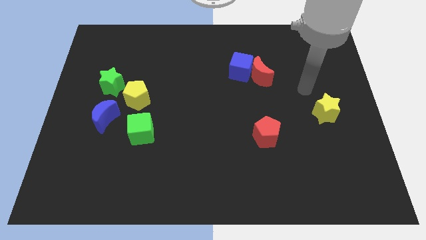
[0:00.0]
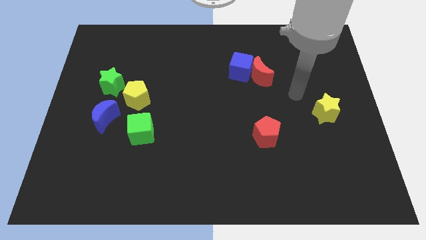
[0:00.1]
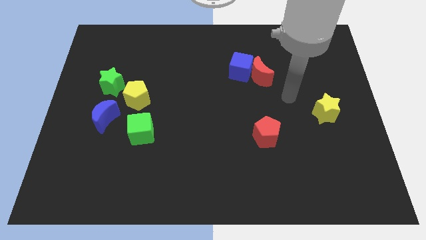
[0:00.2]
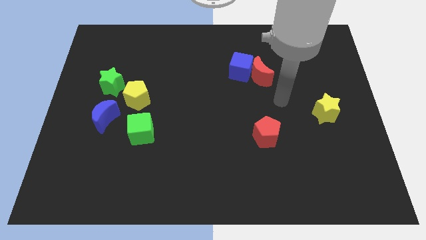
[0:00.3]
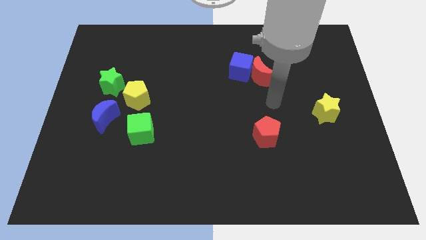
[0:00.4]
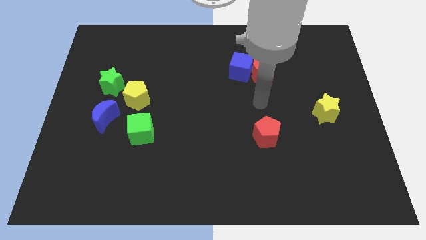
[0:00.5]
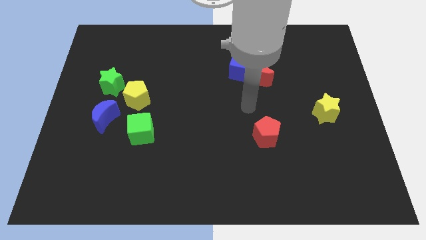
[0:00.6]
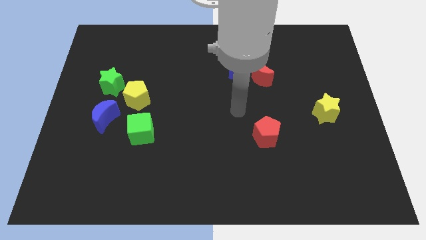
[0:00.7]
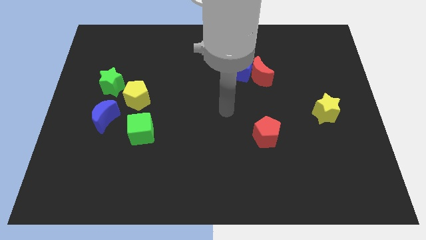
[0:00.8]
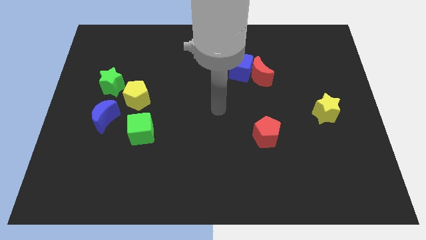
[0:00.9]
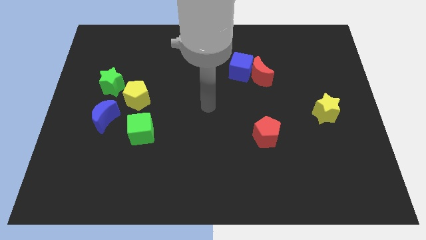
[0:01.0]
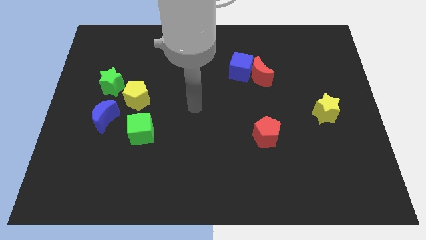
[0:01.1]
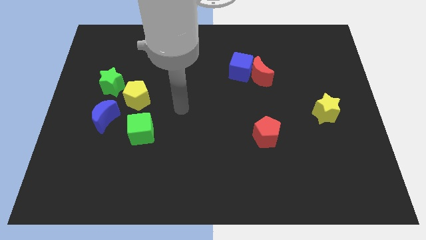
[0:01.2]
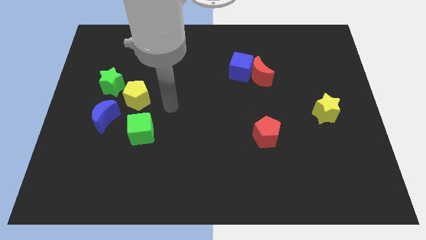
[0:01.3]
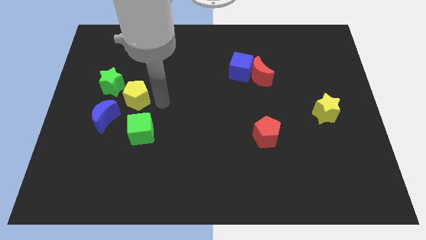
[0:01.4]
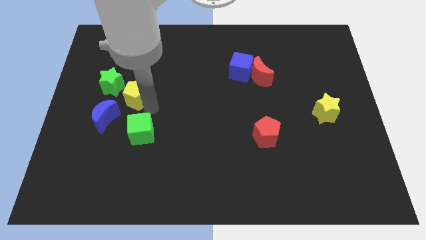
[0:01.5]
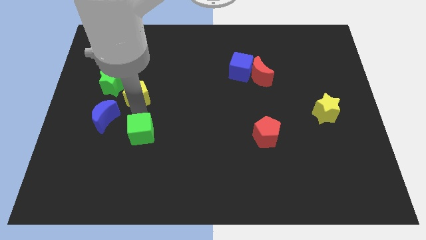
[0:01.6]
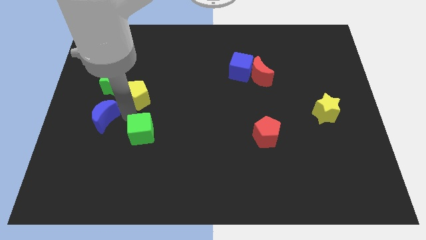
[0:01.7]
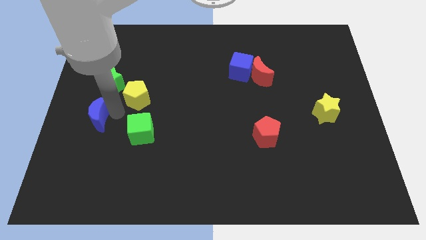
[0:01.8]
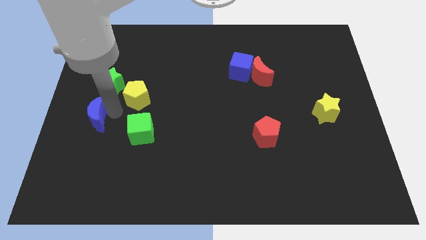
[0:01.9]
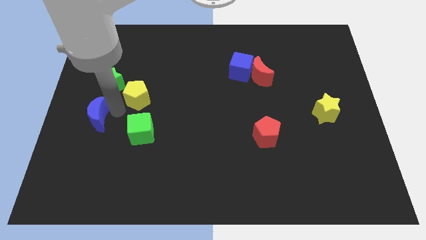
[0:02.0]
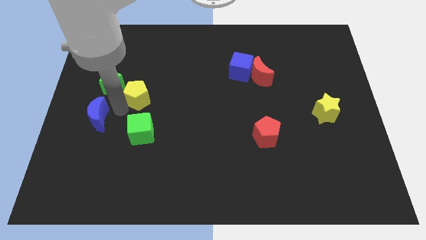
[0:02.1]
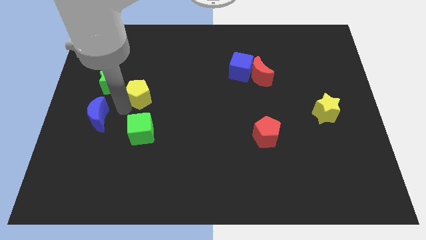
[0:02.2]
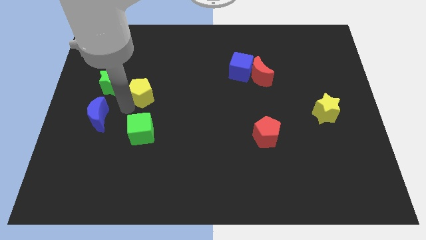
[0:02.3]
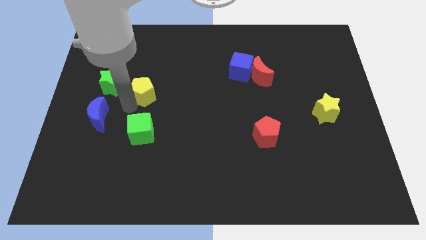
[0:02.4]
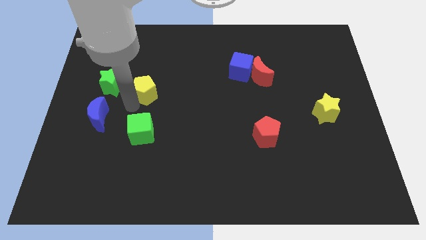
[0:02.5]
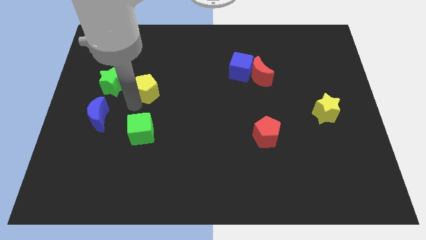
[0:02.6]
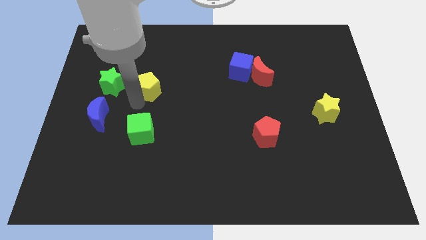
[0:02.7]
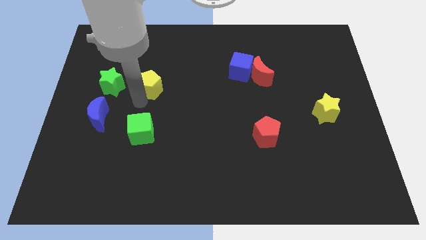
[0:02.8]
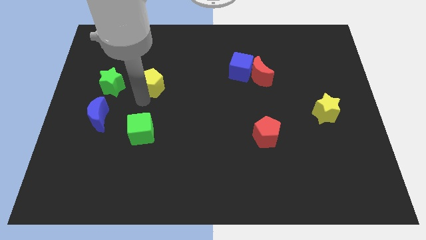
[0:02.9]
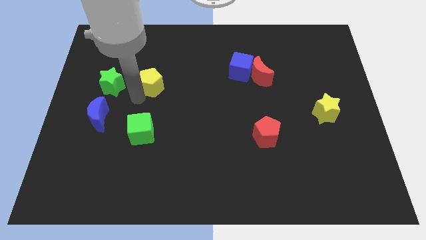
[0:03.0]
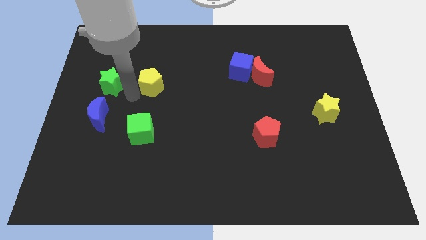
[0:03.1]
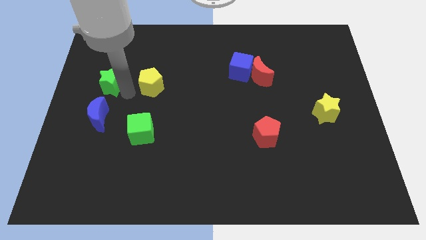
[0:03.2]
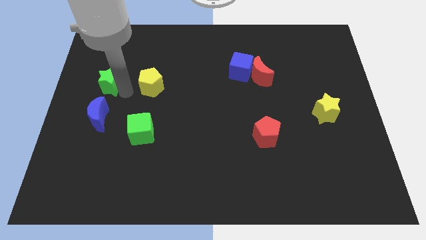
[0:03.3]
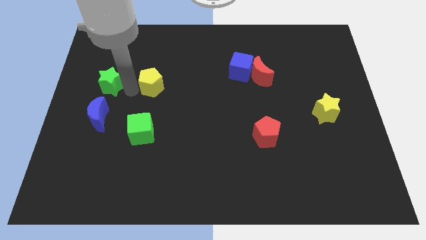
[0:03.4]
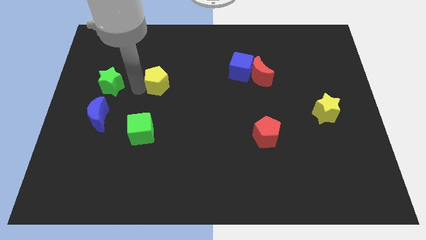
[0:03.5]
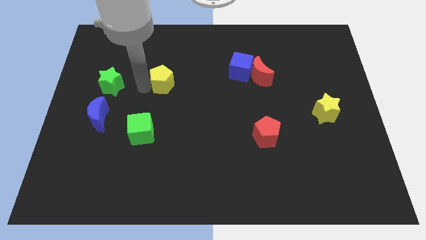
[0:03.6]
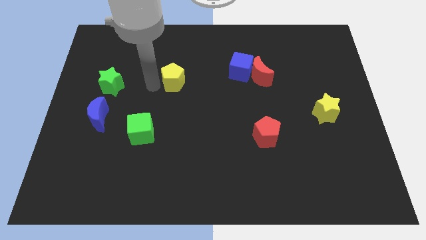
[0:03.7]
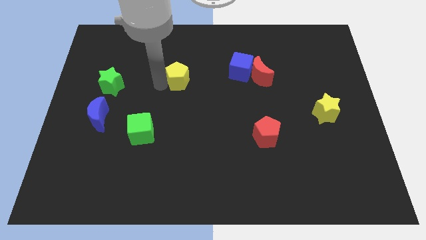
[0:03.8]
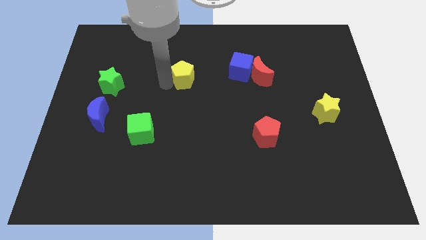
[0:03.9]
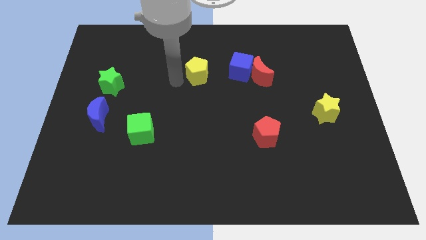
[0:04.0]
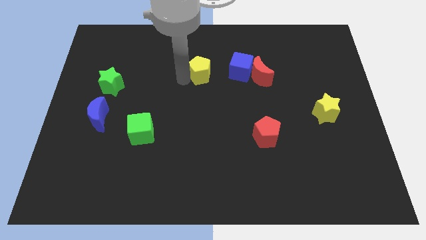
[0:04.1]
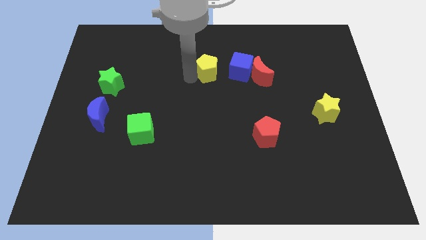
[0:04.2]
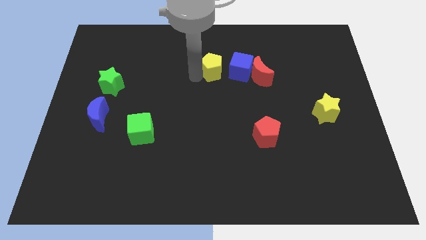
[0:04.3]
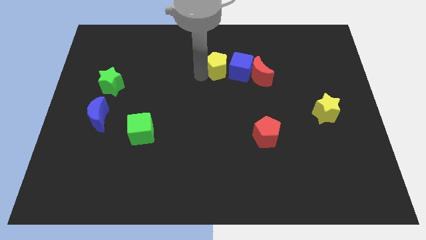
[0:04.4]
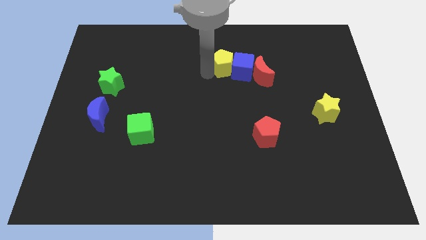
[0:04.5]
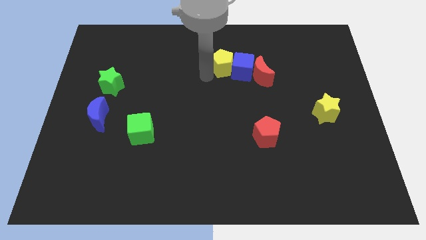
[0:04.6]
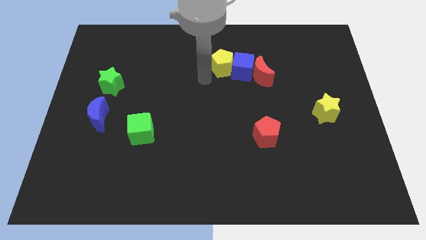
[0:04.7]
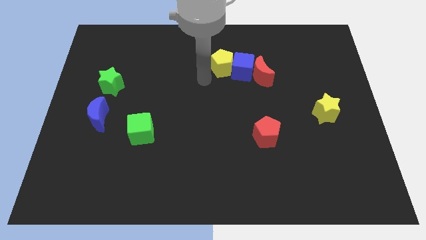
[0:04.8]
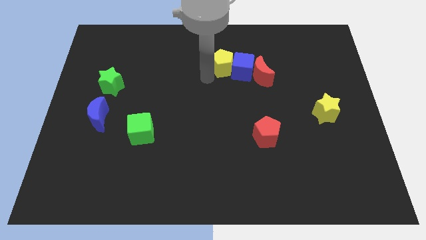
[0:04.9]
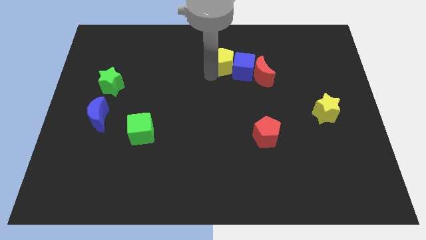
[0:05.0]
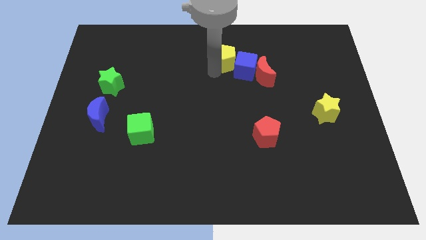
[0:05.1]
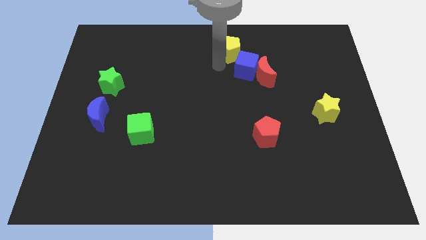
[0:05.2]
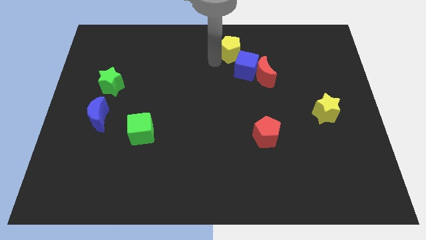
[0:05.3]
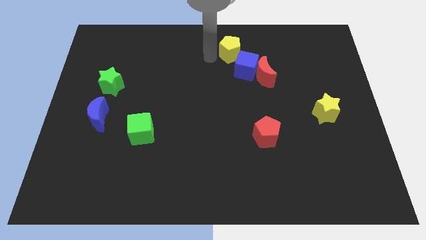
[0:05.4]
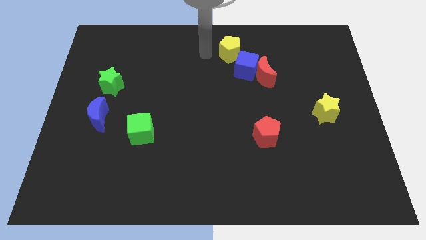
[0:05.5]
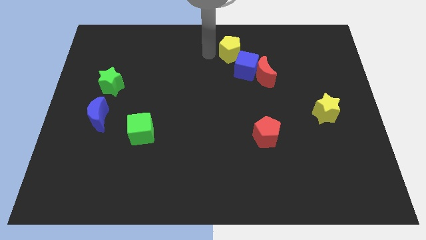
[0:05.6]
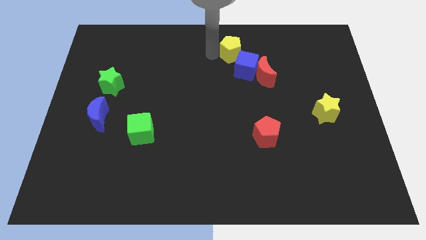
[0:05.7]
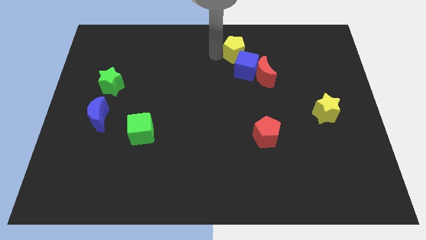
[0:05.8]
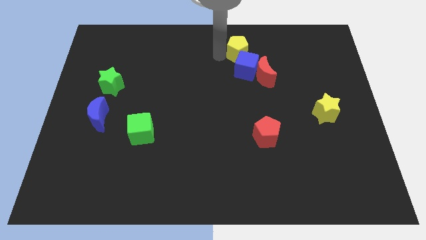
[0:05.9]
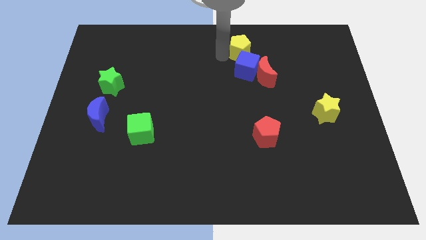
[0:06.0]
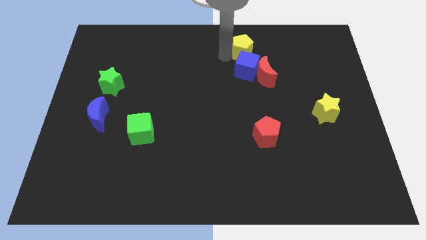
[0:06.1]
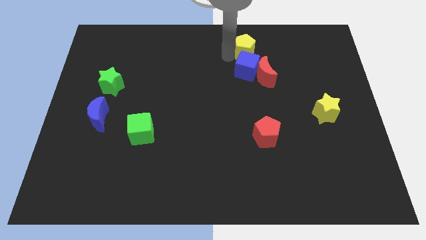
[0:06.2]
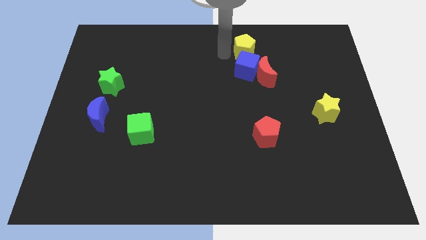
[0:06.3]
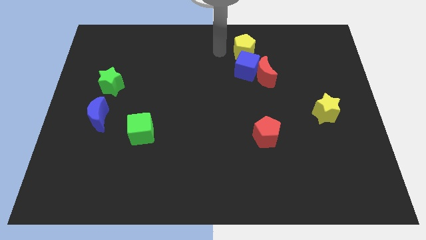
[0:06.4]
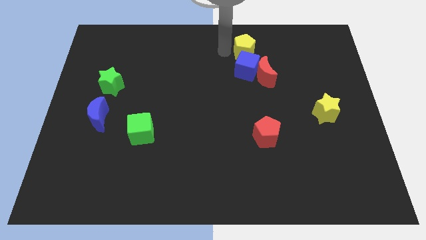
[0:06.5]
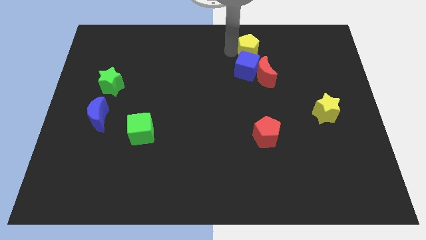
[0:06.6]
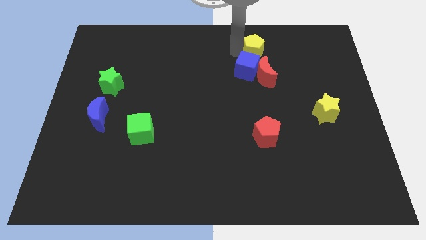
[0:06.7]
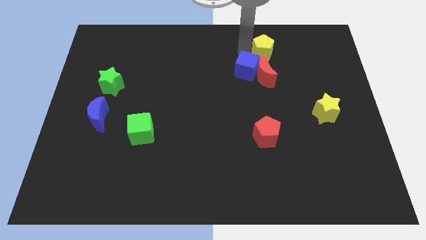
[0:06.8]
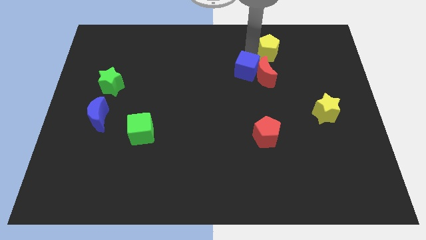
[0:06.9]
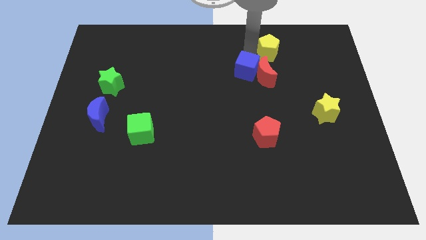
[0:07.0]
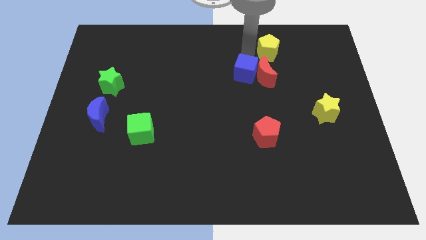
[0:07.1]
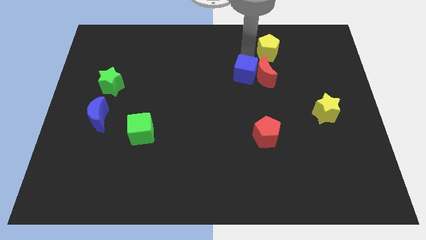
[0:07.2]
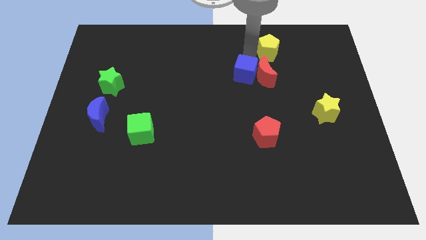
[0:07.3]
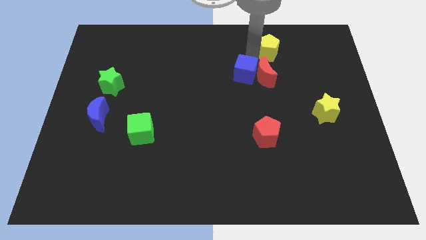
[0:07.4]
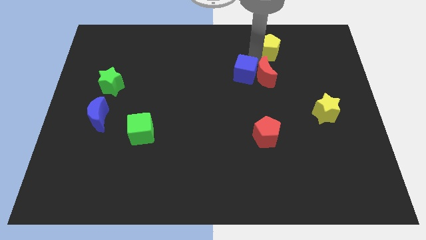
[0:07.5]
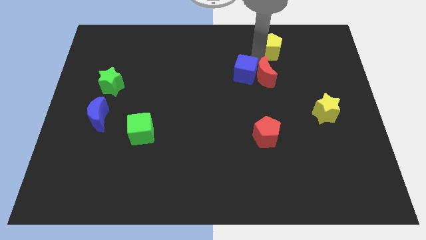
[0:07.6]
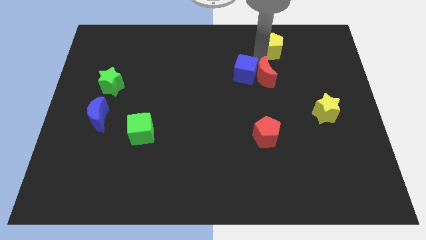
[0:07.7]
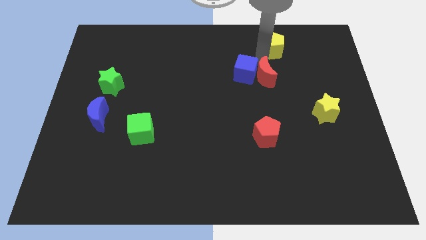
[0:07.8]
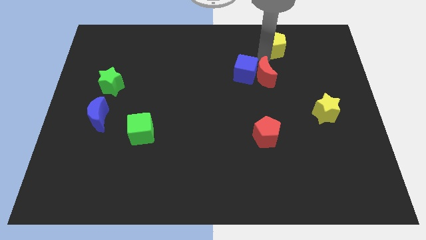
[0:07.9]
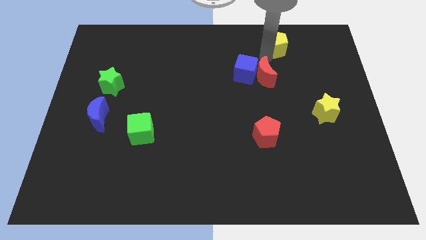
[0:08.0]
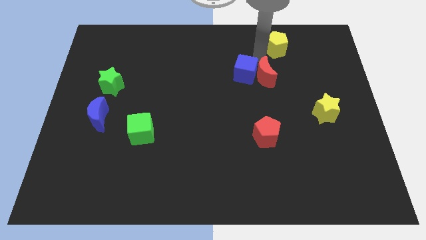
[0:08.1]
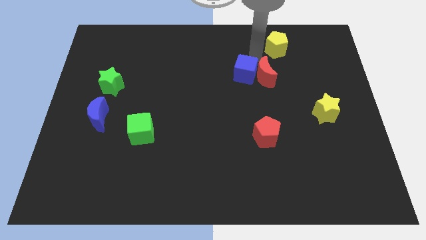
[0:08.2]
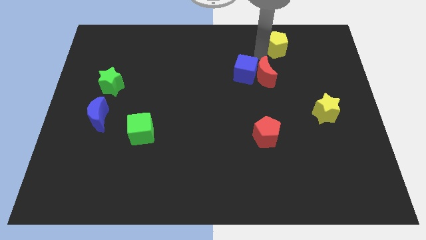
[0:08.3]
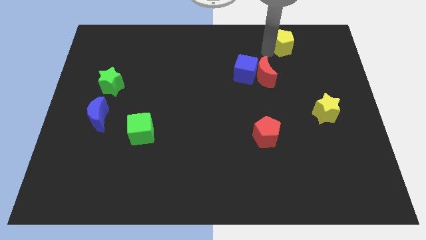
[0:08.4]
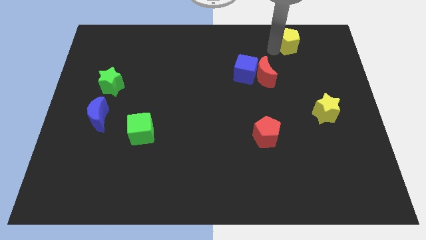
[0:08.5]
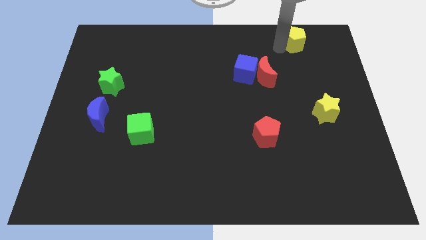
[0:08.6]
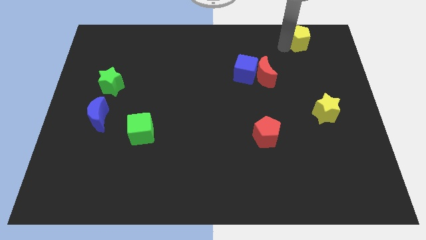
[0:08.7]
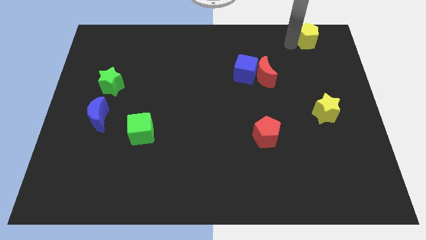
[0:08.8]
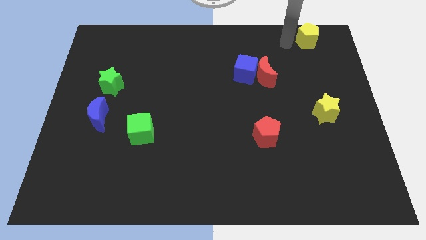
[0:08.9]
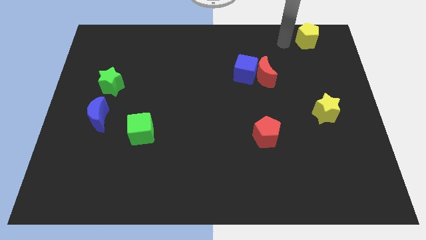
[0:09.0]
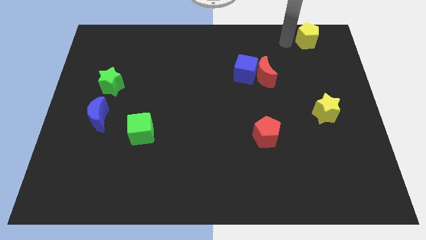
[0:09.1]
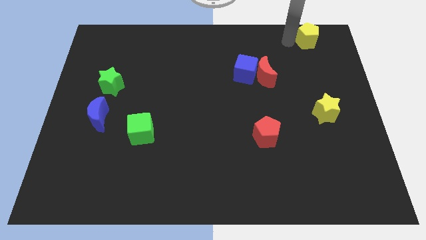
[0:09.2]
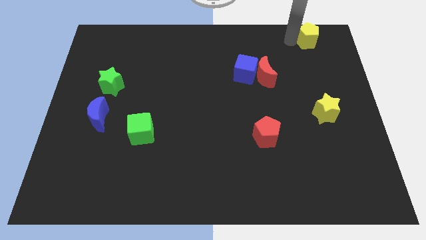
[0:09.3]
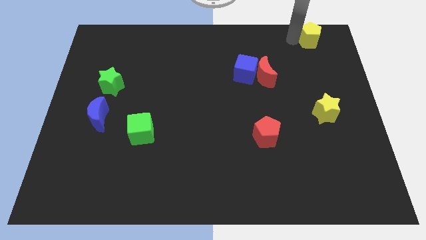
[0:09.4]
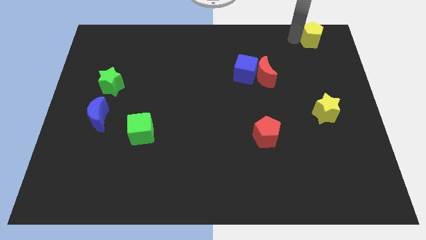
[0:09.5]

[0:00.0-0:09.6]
put the yellow pentagon to the upper right corner
